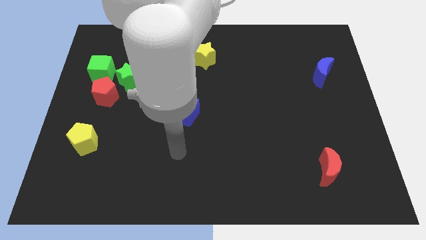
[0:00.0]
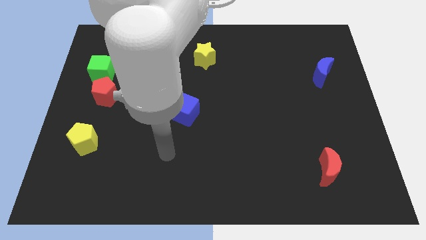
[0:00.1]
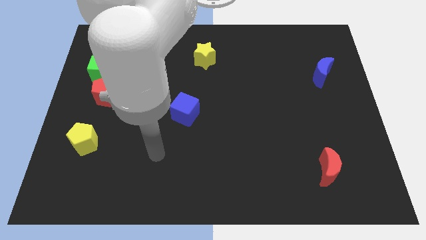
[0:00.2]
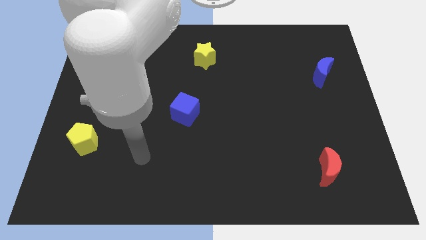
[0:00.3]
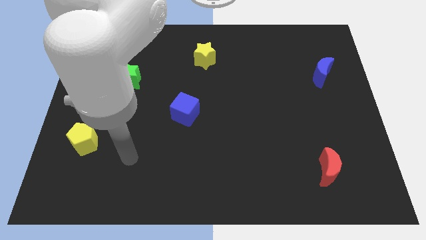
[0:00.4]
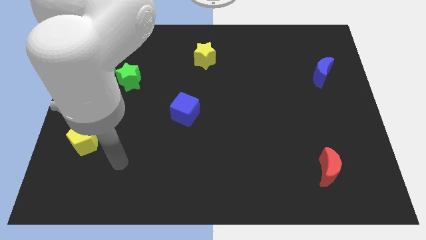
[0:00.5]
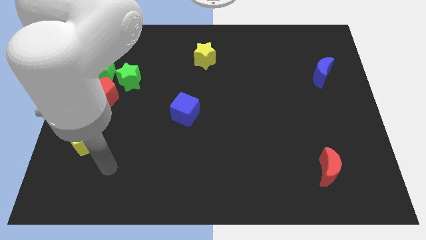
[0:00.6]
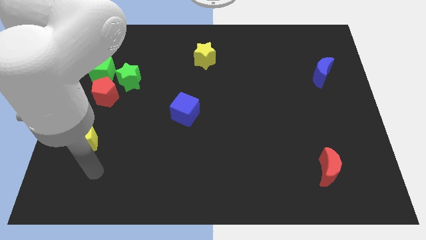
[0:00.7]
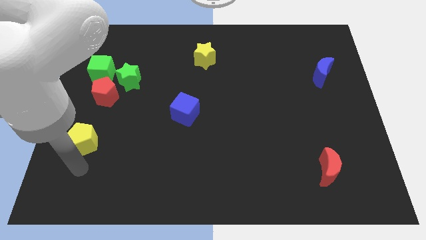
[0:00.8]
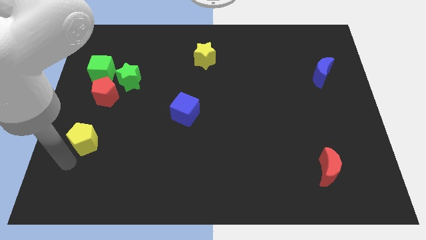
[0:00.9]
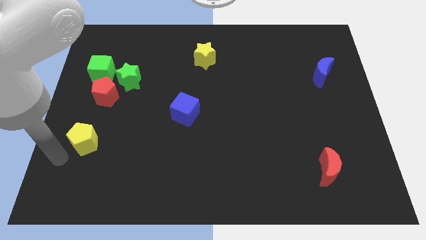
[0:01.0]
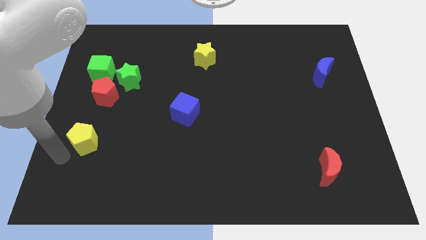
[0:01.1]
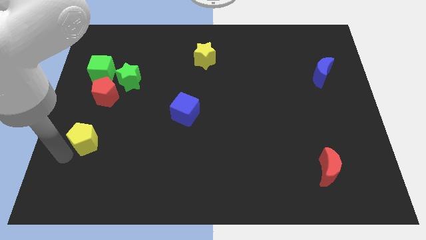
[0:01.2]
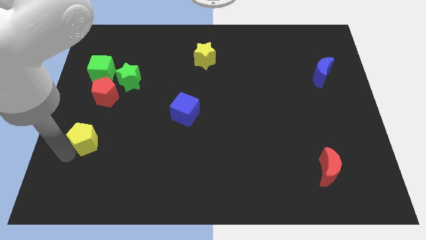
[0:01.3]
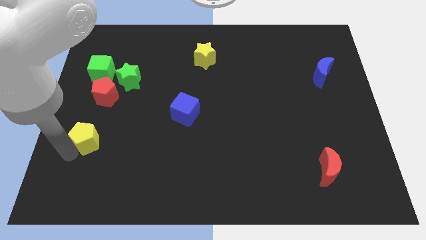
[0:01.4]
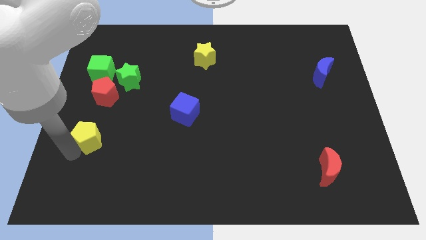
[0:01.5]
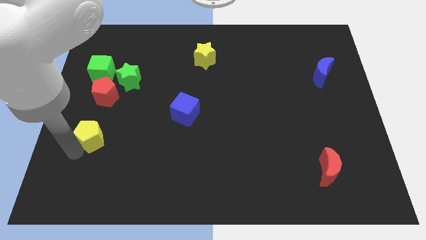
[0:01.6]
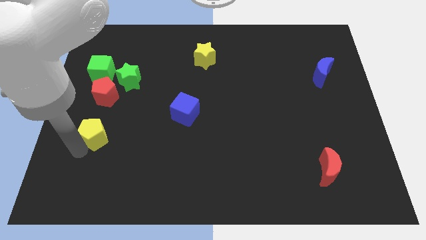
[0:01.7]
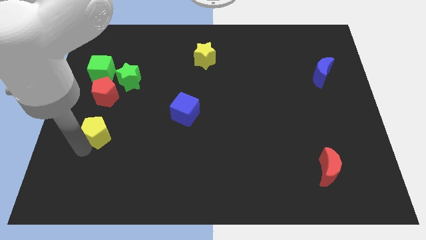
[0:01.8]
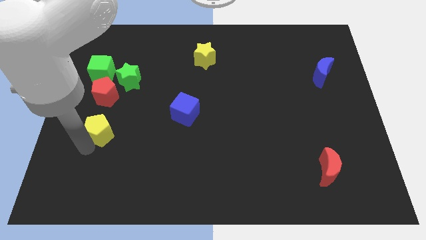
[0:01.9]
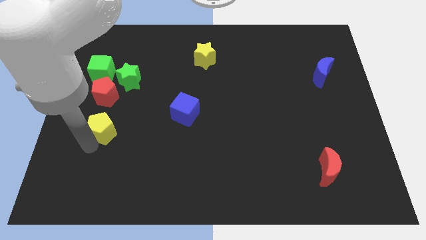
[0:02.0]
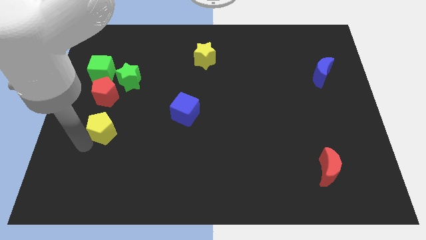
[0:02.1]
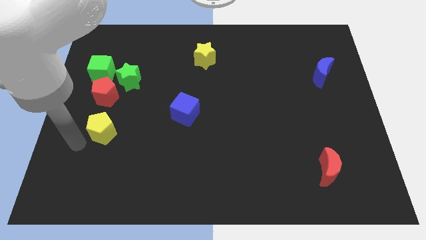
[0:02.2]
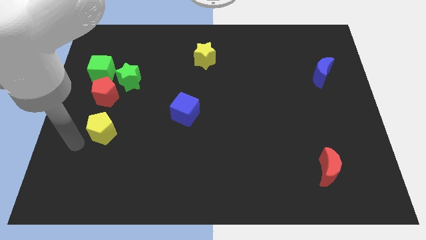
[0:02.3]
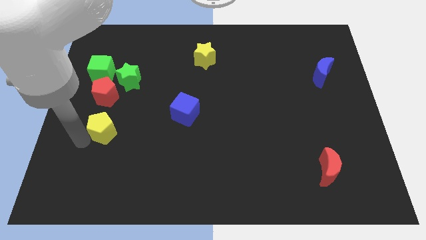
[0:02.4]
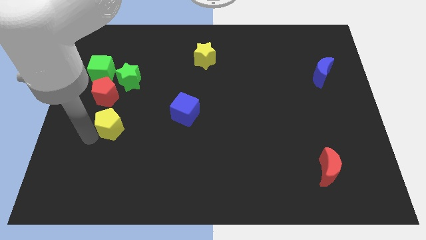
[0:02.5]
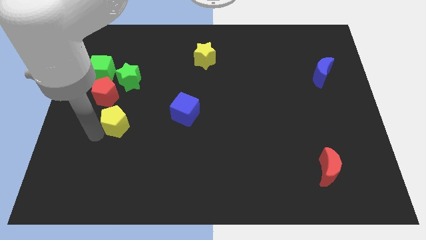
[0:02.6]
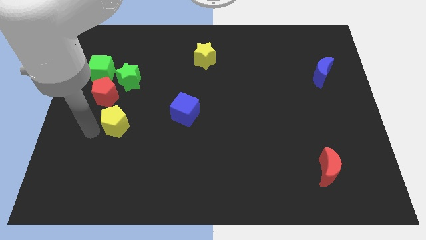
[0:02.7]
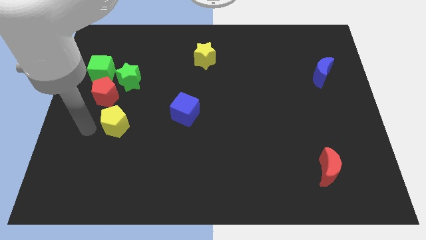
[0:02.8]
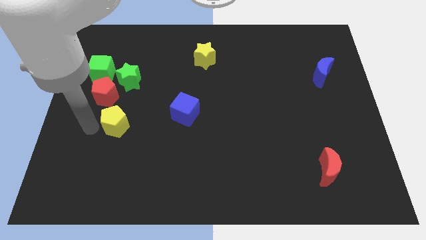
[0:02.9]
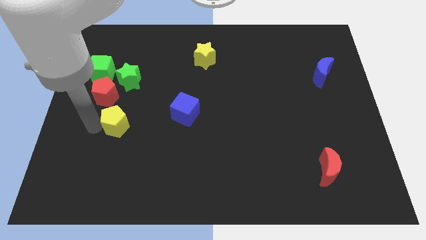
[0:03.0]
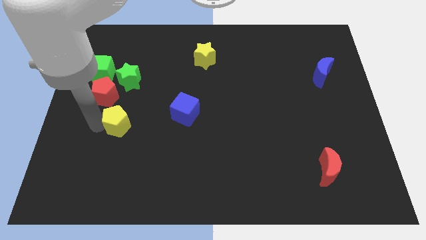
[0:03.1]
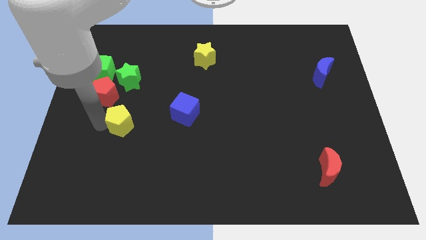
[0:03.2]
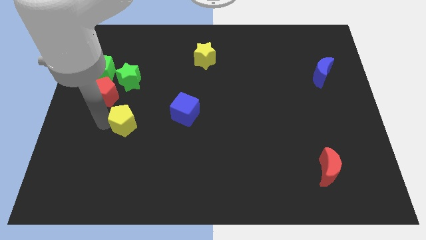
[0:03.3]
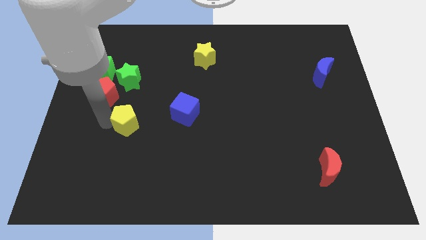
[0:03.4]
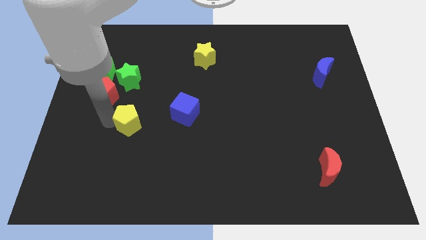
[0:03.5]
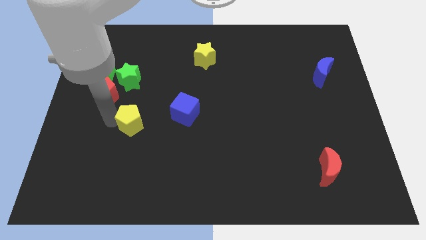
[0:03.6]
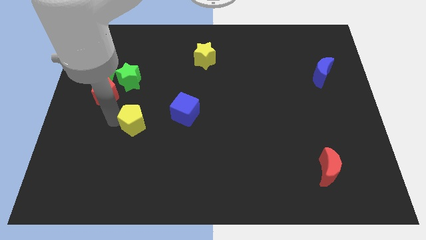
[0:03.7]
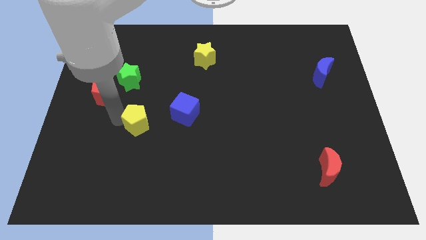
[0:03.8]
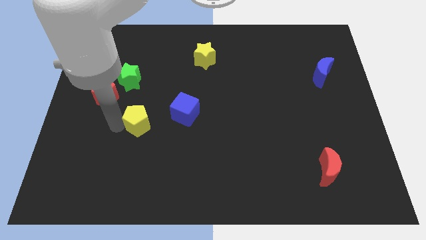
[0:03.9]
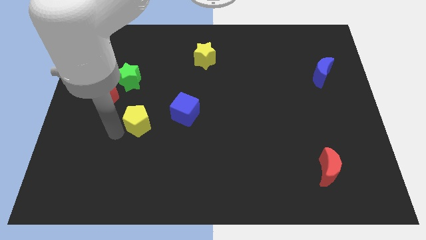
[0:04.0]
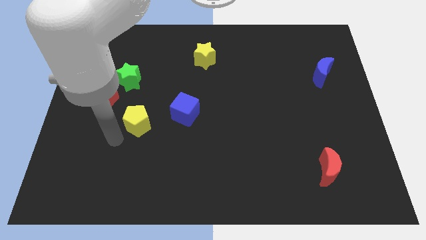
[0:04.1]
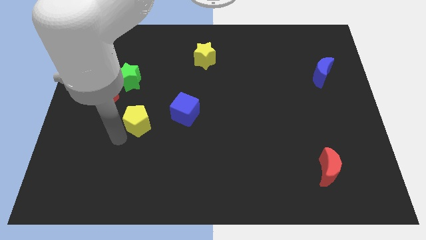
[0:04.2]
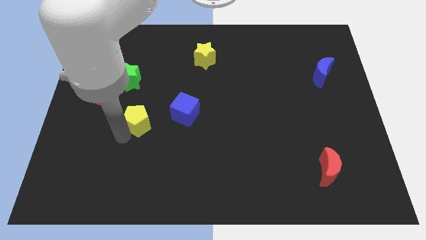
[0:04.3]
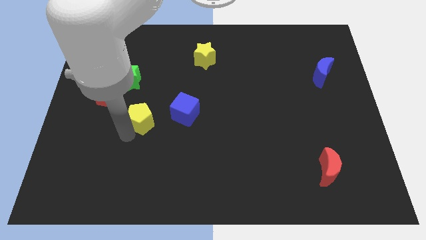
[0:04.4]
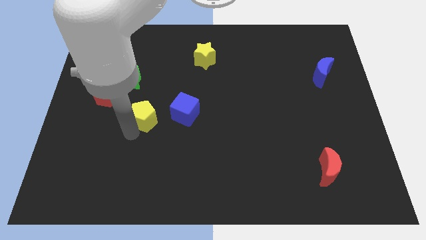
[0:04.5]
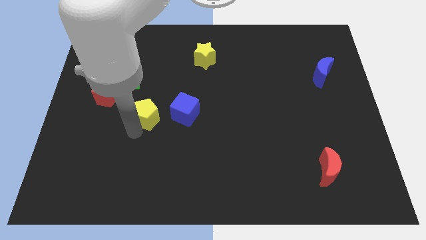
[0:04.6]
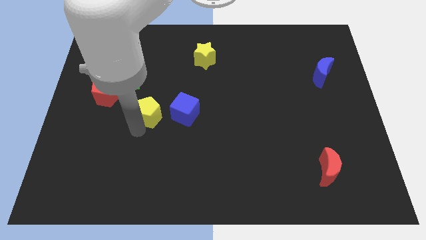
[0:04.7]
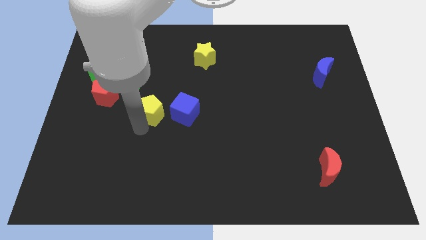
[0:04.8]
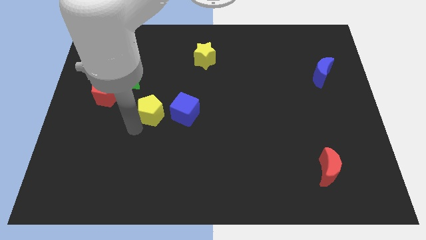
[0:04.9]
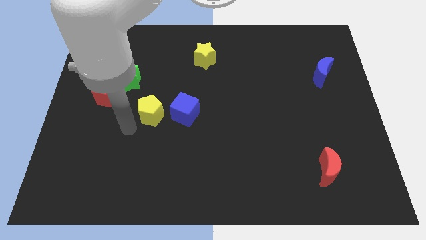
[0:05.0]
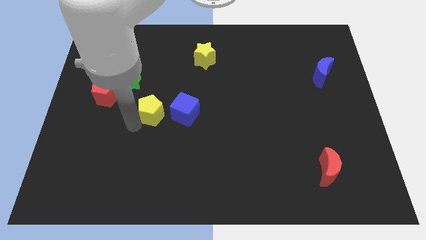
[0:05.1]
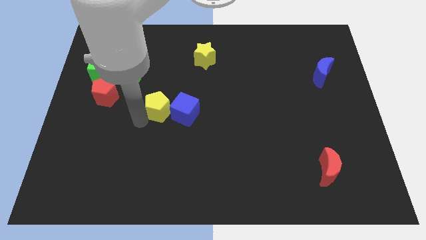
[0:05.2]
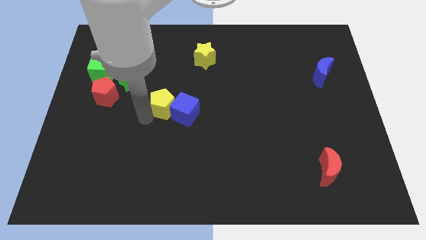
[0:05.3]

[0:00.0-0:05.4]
move the yellow pentagon to the center of the board

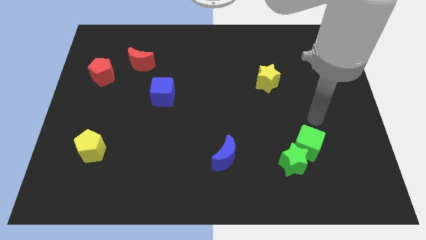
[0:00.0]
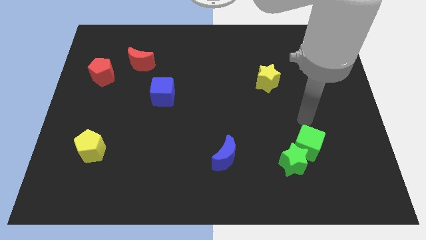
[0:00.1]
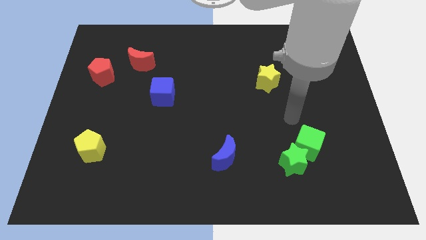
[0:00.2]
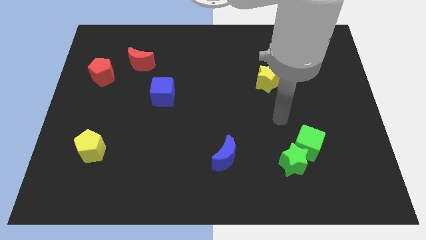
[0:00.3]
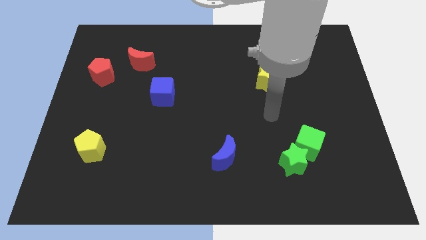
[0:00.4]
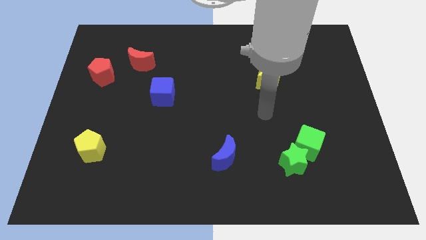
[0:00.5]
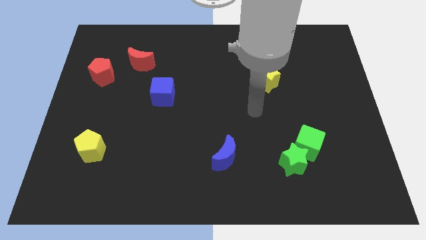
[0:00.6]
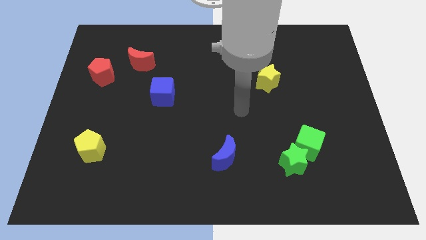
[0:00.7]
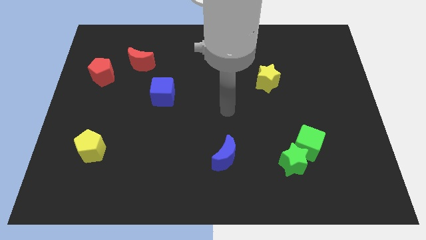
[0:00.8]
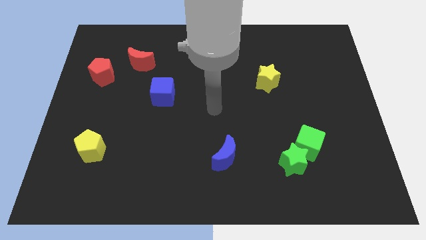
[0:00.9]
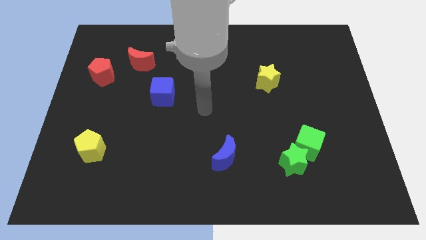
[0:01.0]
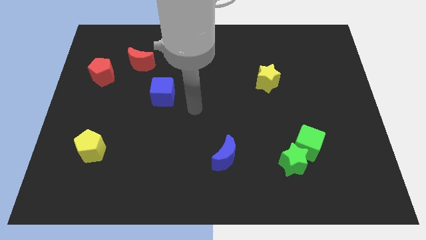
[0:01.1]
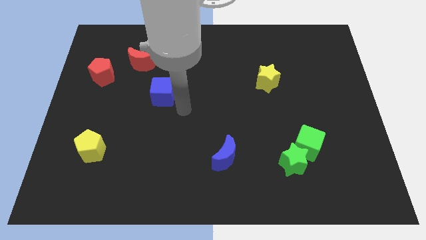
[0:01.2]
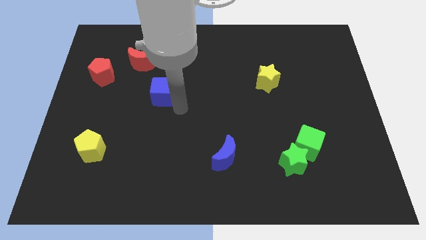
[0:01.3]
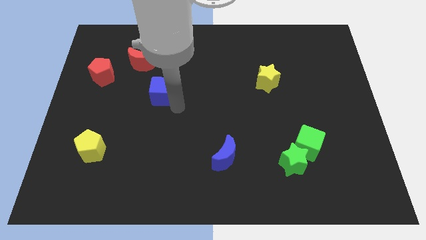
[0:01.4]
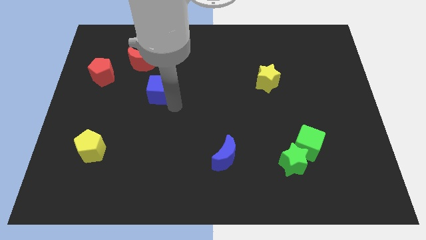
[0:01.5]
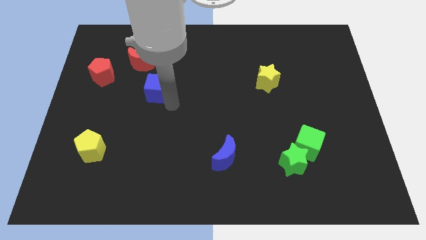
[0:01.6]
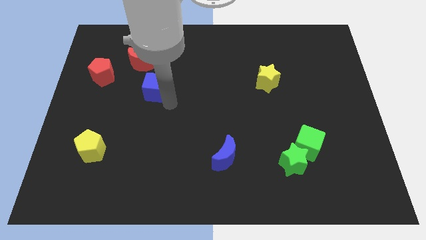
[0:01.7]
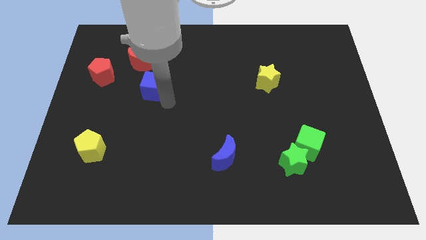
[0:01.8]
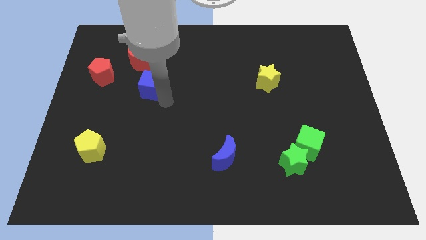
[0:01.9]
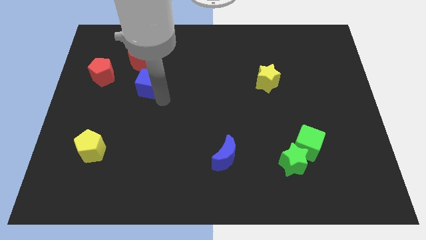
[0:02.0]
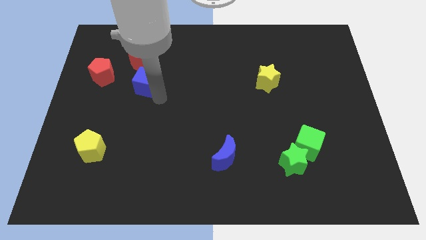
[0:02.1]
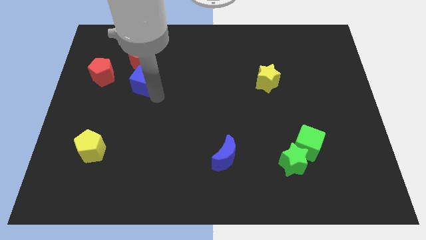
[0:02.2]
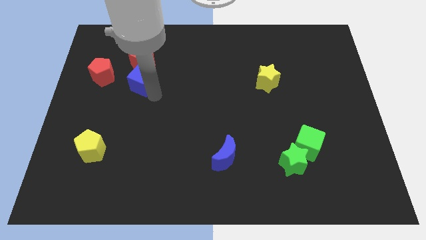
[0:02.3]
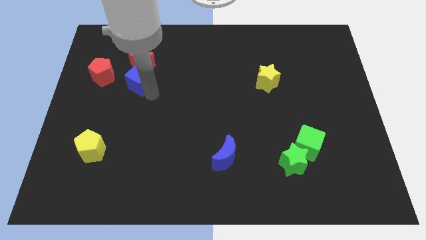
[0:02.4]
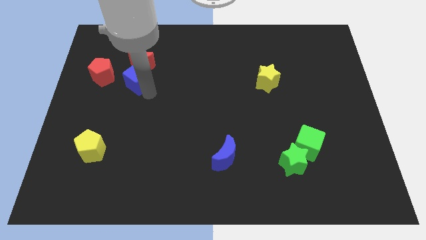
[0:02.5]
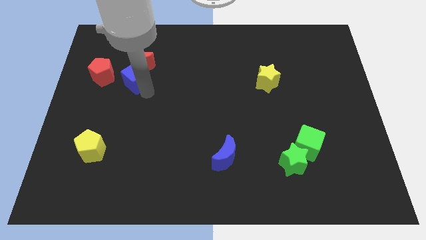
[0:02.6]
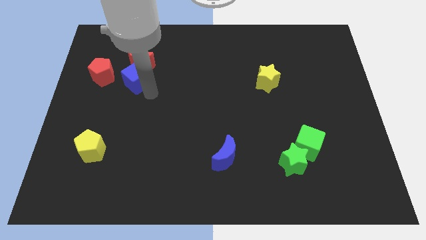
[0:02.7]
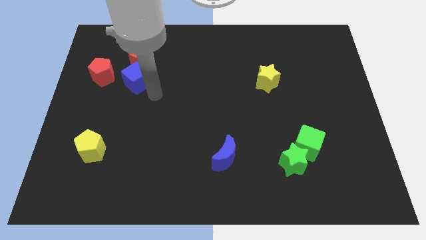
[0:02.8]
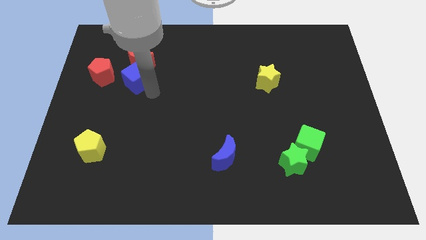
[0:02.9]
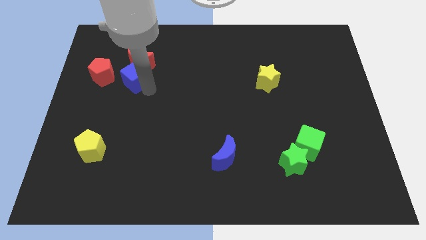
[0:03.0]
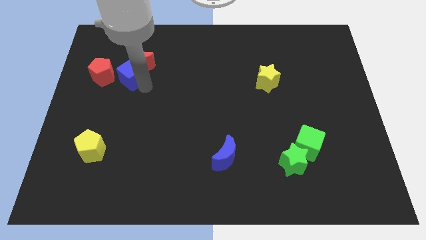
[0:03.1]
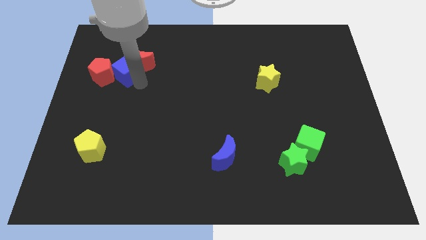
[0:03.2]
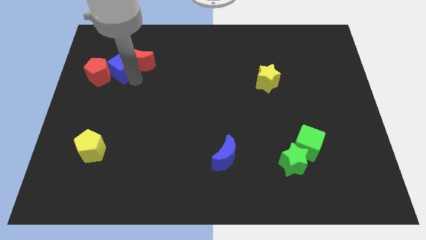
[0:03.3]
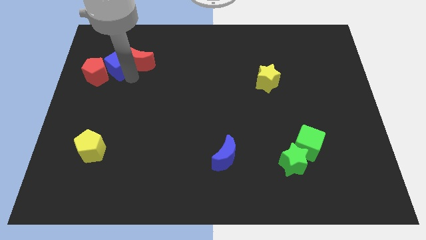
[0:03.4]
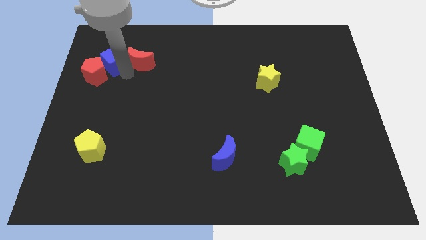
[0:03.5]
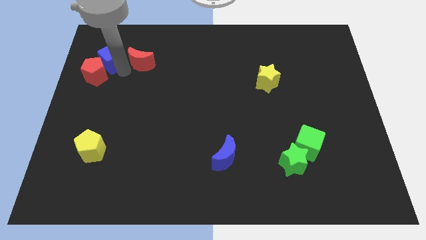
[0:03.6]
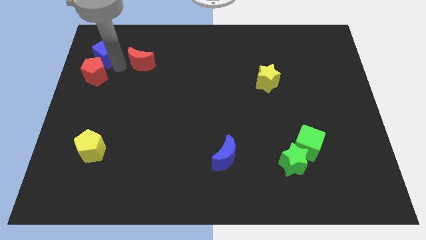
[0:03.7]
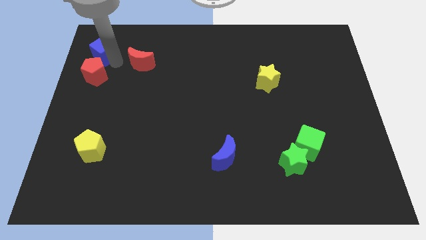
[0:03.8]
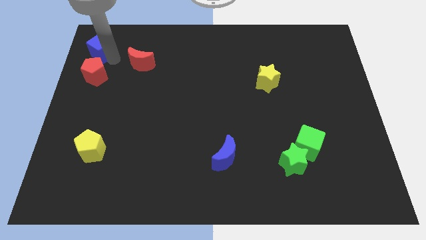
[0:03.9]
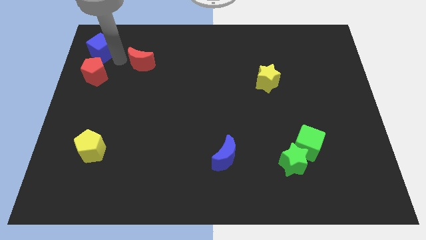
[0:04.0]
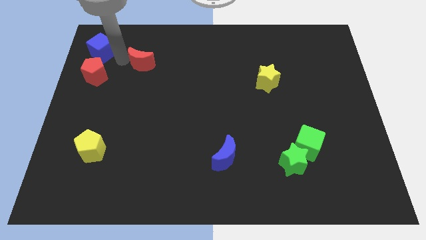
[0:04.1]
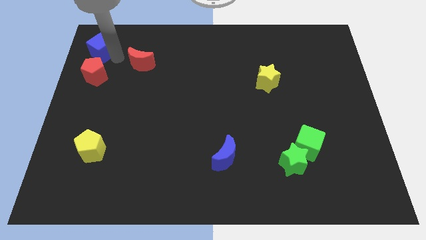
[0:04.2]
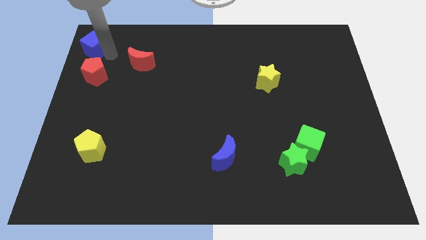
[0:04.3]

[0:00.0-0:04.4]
move the blue cube to the upper left corner
